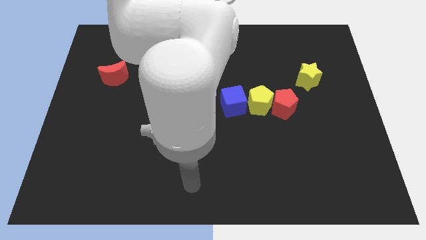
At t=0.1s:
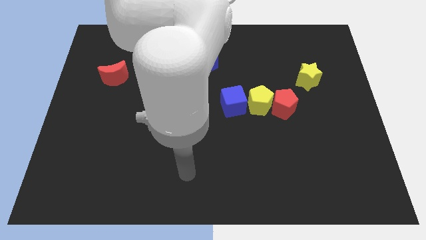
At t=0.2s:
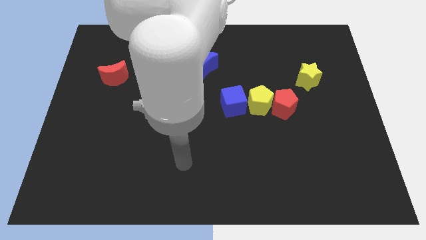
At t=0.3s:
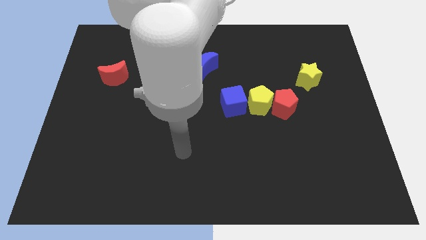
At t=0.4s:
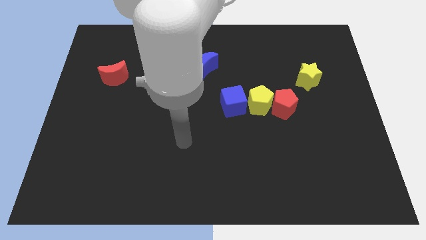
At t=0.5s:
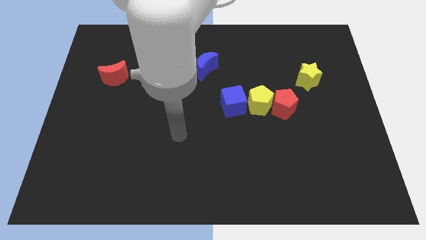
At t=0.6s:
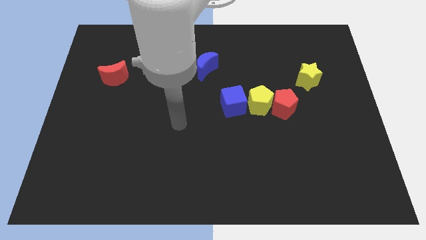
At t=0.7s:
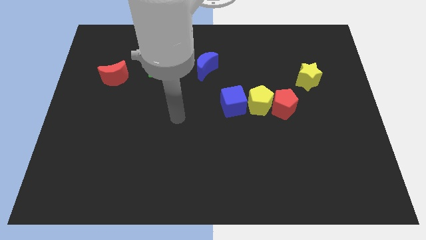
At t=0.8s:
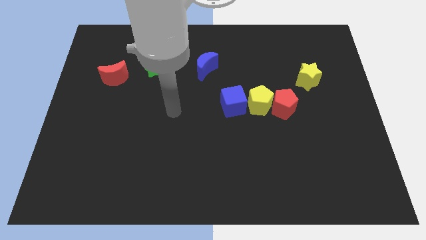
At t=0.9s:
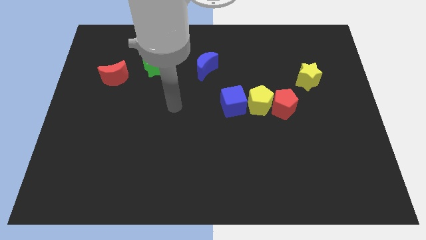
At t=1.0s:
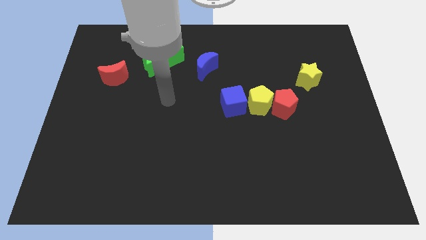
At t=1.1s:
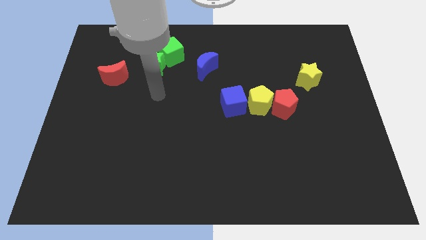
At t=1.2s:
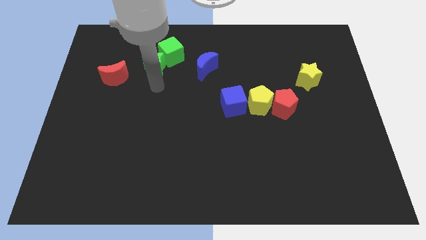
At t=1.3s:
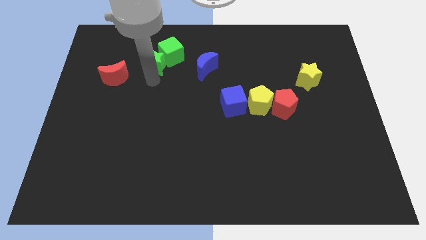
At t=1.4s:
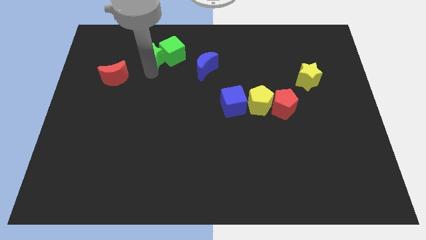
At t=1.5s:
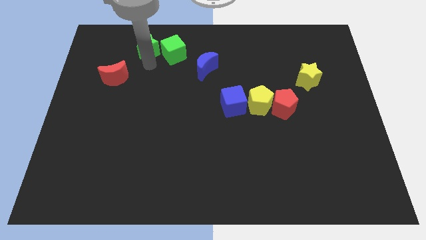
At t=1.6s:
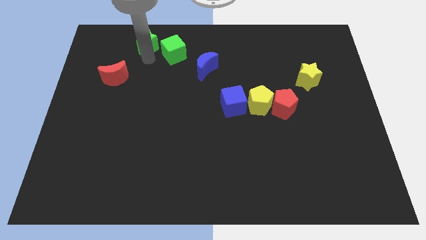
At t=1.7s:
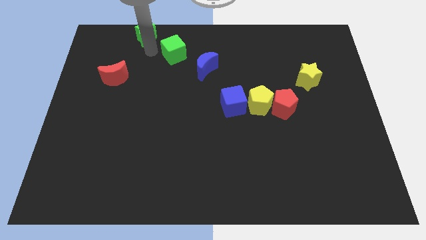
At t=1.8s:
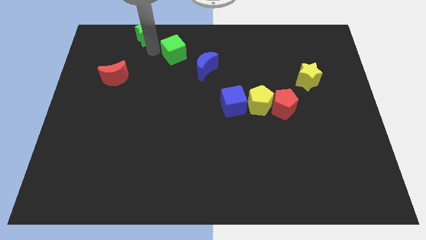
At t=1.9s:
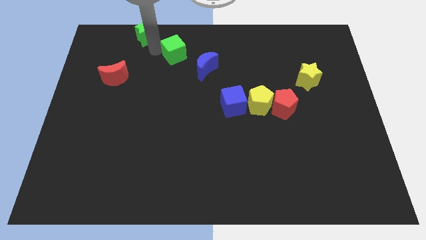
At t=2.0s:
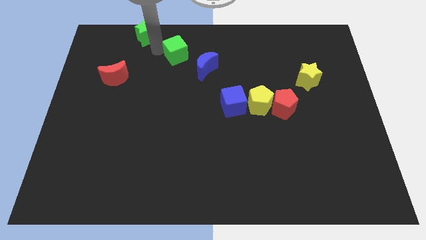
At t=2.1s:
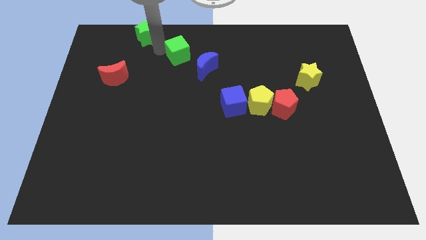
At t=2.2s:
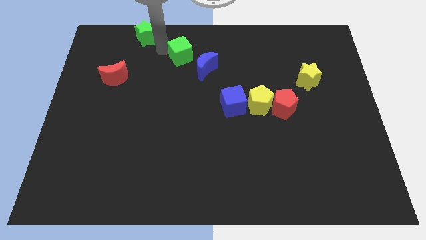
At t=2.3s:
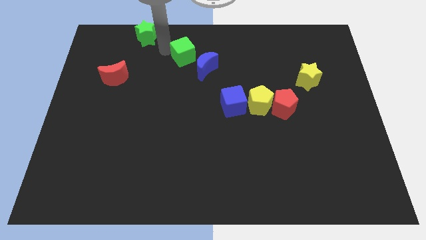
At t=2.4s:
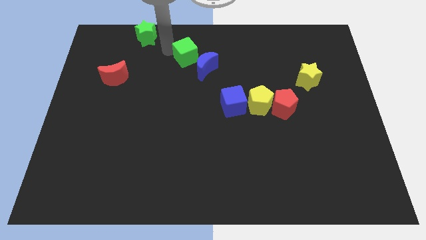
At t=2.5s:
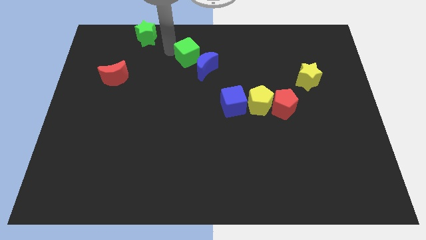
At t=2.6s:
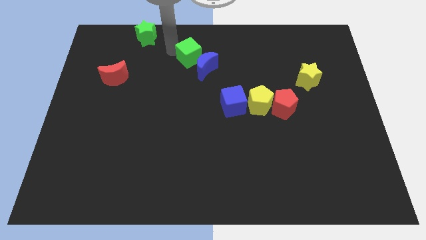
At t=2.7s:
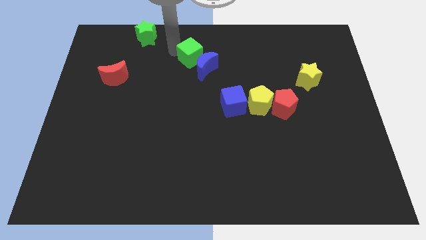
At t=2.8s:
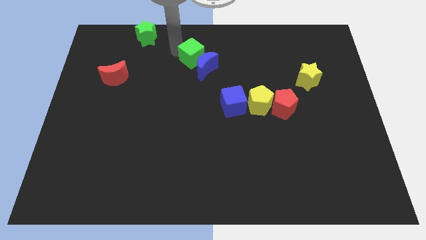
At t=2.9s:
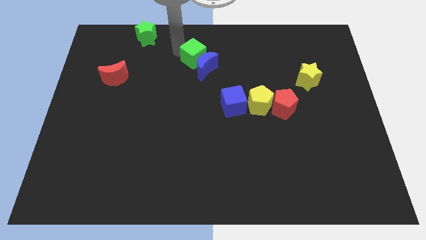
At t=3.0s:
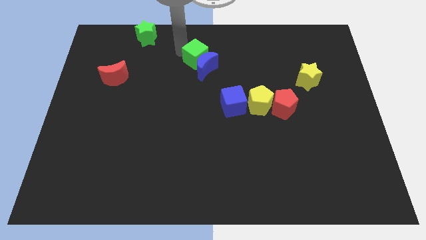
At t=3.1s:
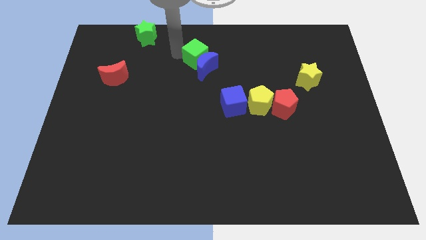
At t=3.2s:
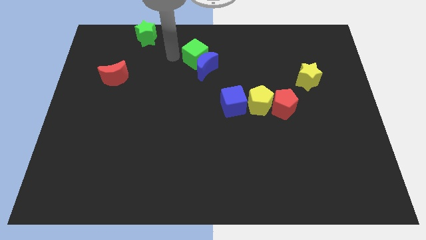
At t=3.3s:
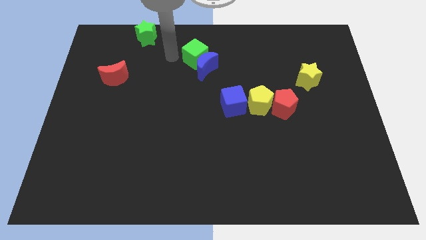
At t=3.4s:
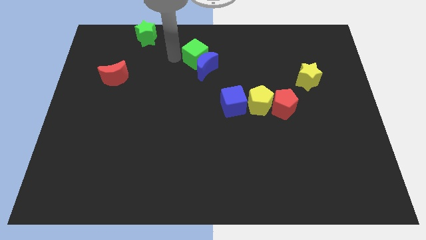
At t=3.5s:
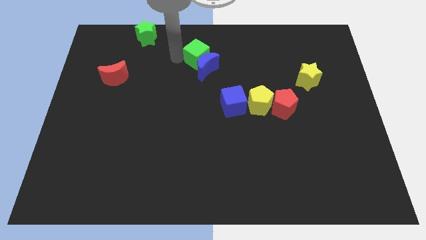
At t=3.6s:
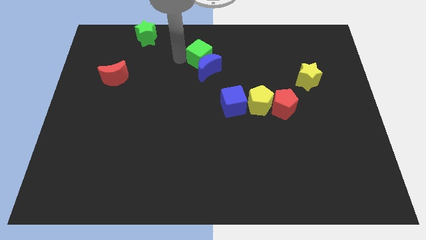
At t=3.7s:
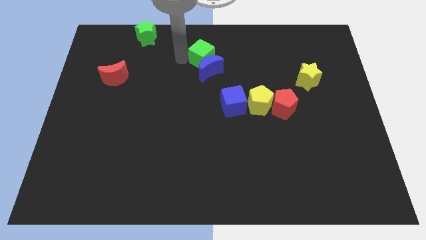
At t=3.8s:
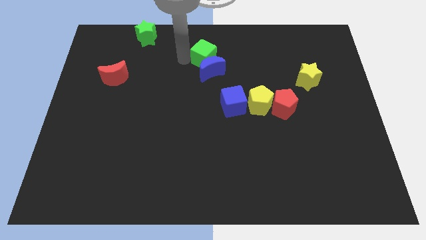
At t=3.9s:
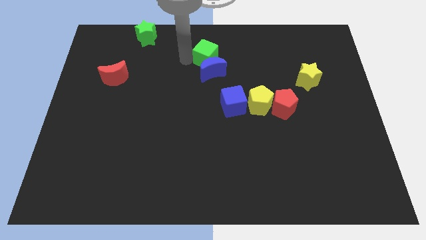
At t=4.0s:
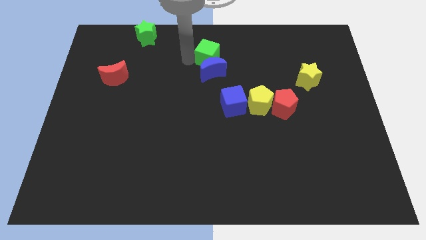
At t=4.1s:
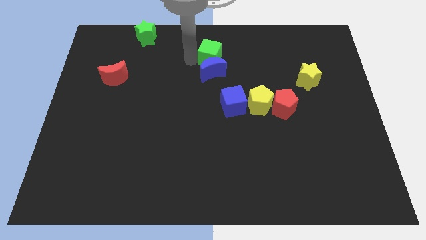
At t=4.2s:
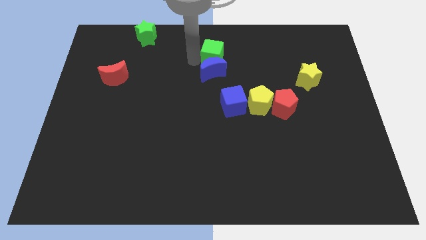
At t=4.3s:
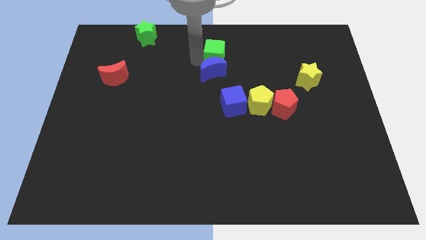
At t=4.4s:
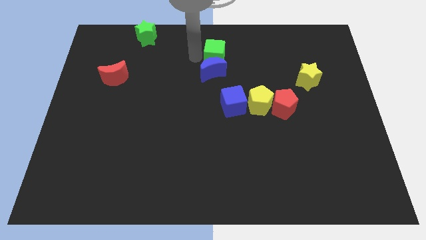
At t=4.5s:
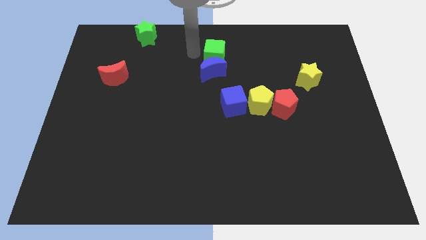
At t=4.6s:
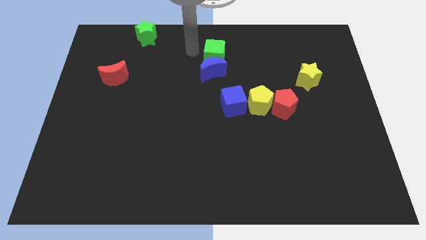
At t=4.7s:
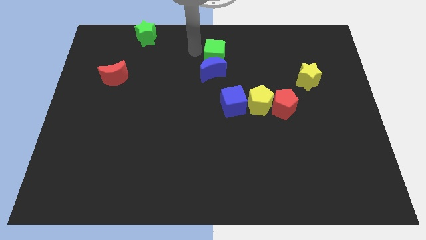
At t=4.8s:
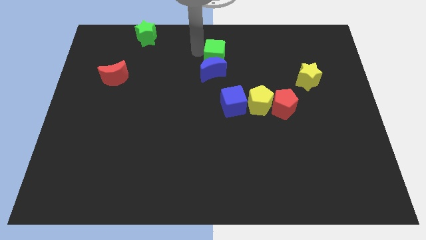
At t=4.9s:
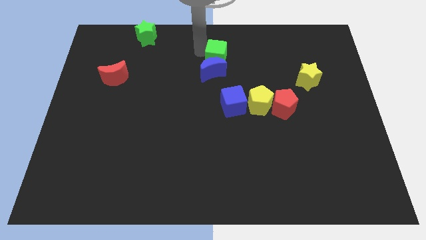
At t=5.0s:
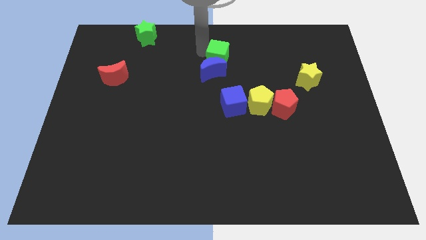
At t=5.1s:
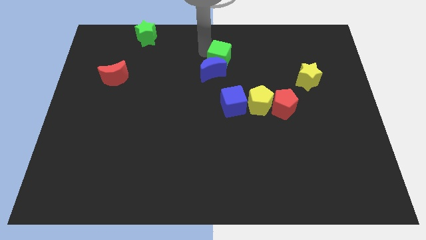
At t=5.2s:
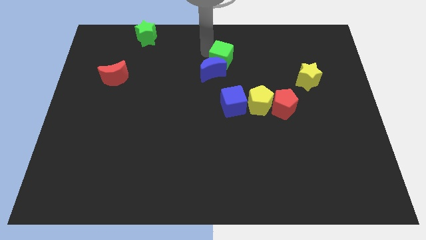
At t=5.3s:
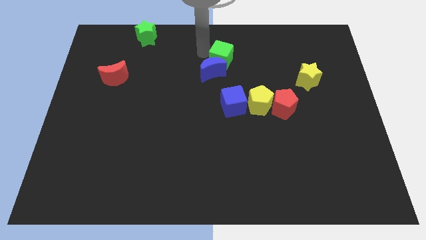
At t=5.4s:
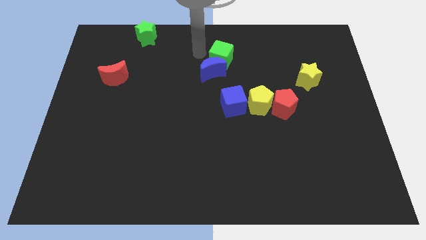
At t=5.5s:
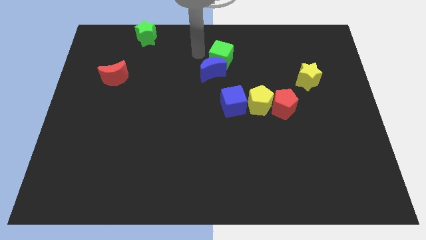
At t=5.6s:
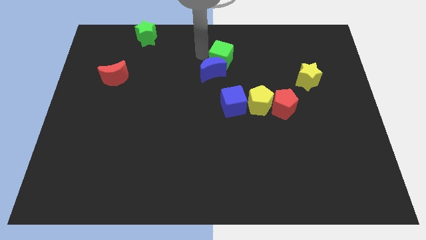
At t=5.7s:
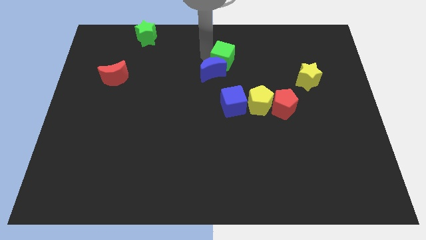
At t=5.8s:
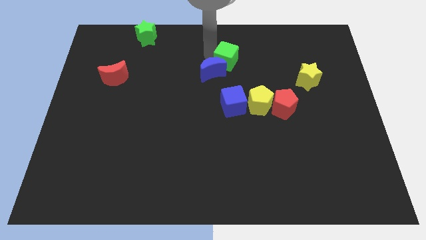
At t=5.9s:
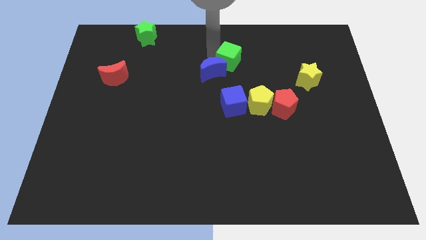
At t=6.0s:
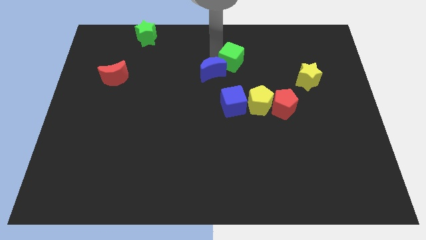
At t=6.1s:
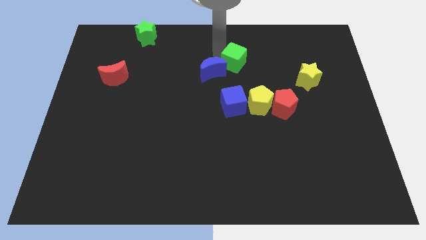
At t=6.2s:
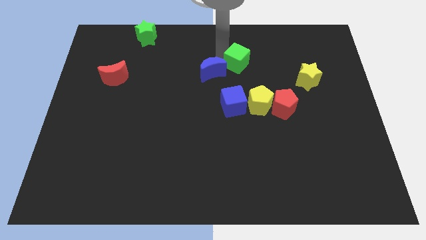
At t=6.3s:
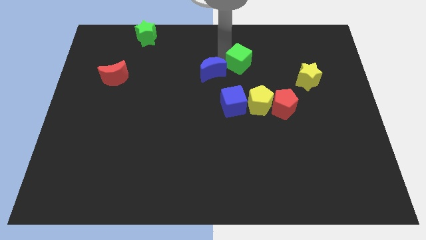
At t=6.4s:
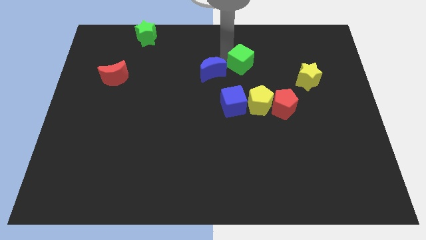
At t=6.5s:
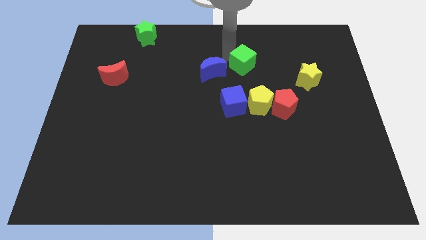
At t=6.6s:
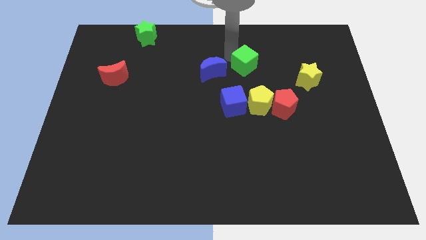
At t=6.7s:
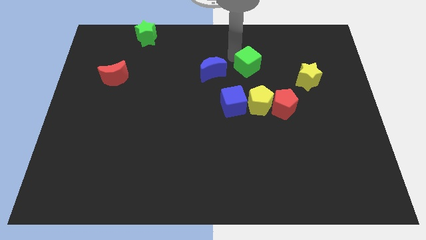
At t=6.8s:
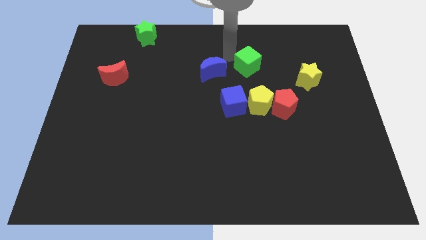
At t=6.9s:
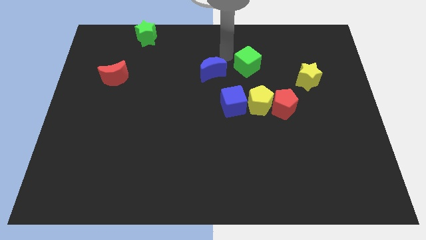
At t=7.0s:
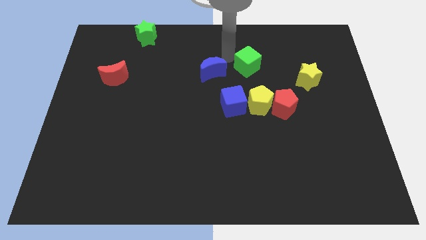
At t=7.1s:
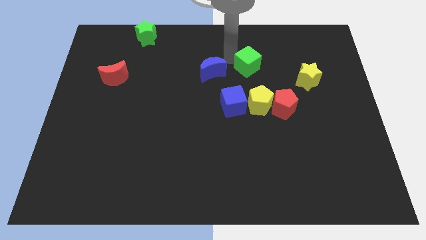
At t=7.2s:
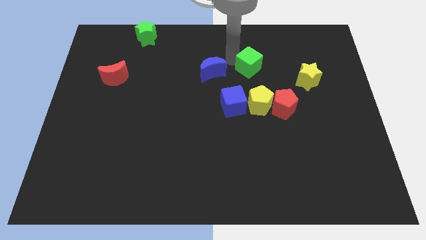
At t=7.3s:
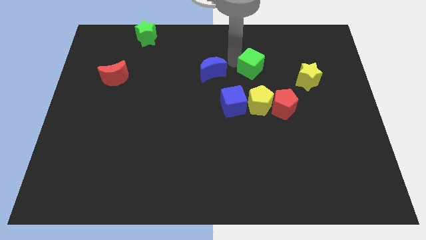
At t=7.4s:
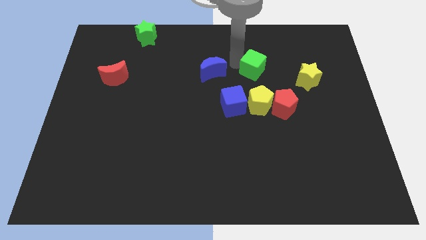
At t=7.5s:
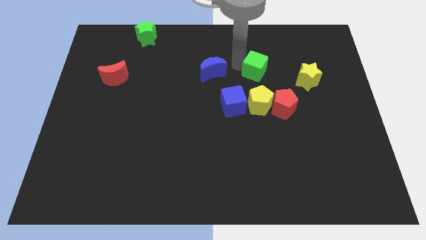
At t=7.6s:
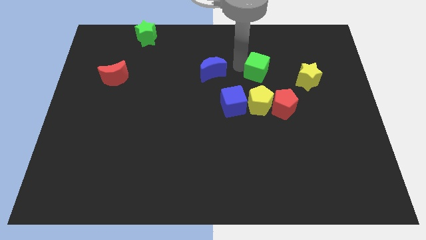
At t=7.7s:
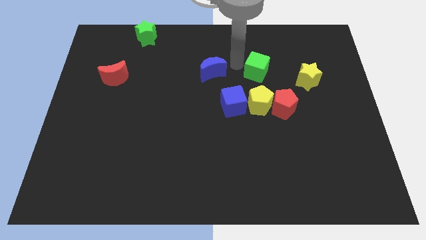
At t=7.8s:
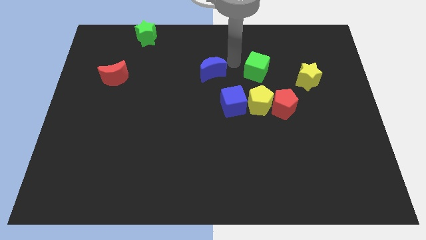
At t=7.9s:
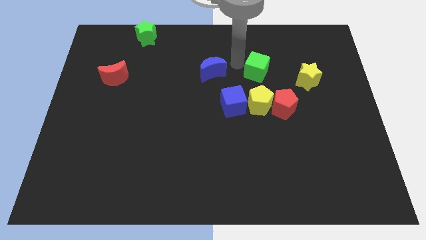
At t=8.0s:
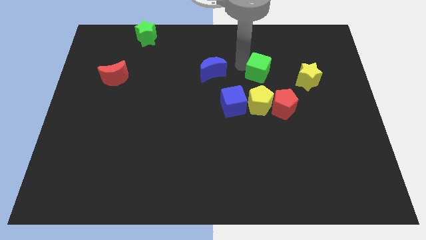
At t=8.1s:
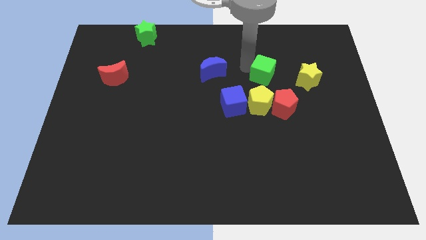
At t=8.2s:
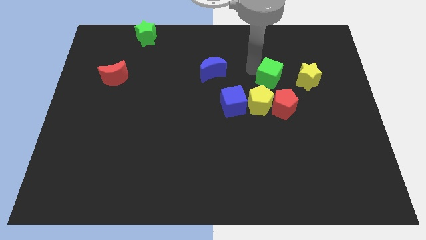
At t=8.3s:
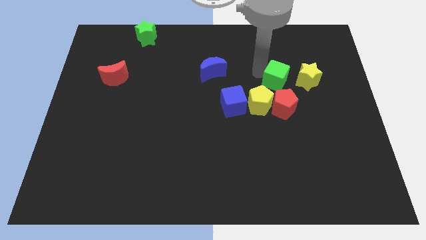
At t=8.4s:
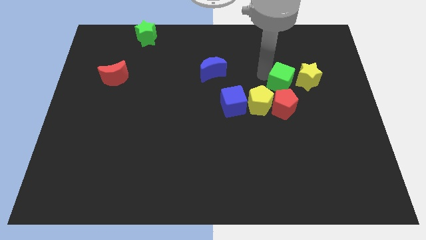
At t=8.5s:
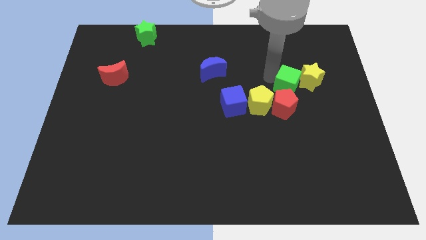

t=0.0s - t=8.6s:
move the green cube diagonally up and to the right of the red pentagon
